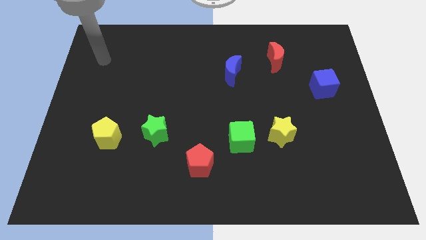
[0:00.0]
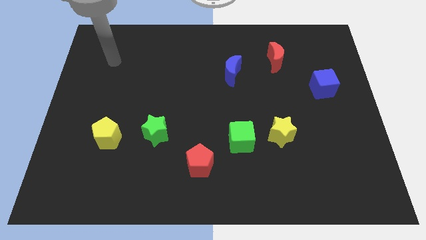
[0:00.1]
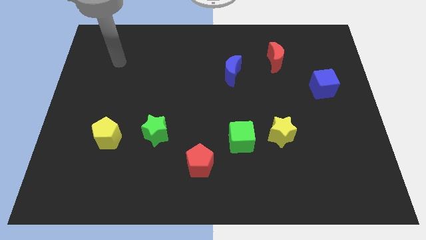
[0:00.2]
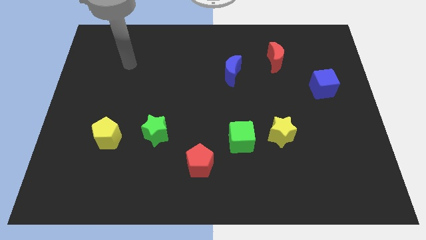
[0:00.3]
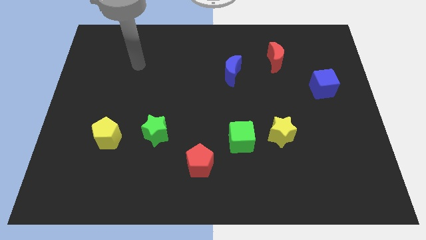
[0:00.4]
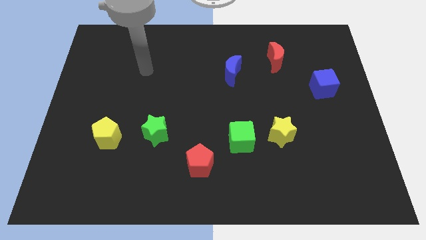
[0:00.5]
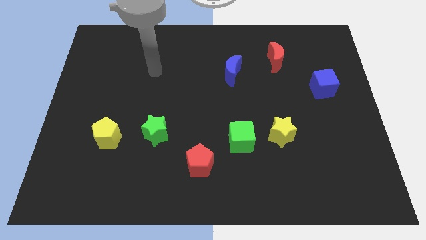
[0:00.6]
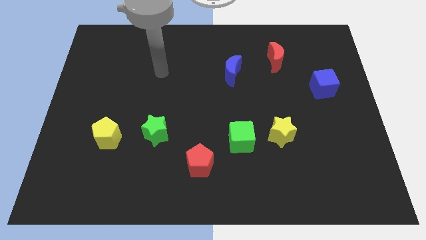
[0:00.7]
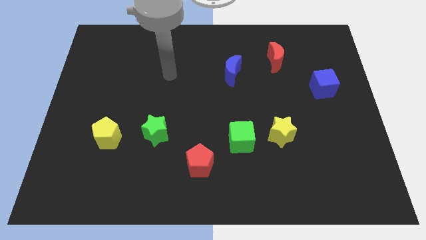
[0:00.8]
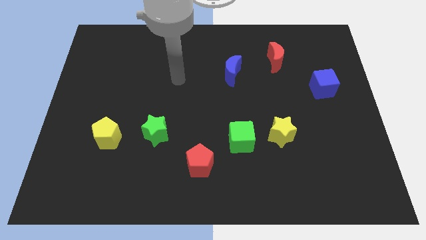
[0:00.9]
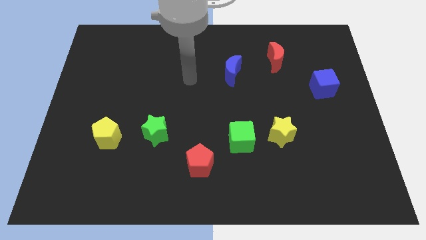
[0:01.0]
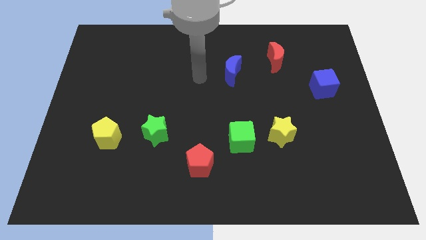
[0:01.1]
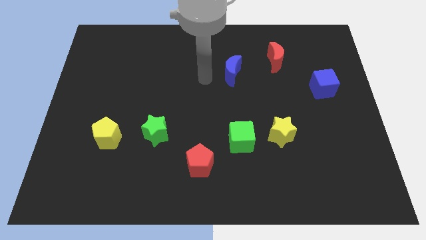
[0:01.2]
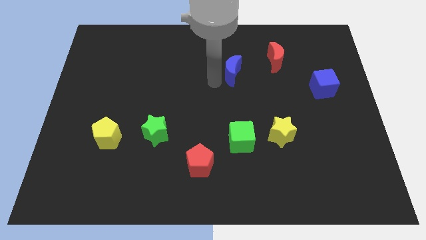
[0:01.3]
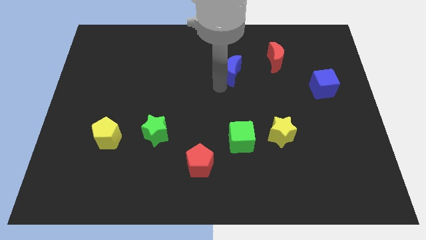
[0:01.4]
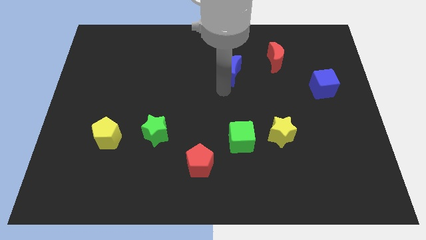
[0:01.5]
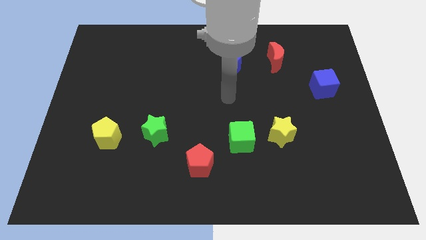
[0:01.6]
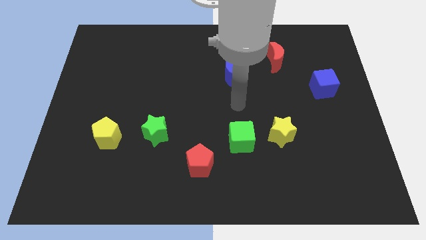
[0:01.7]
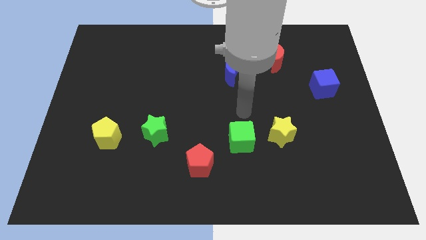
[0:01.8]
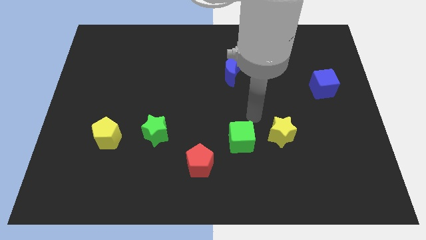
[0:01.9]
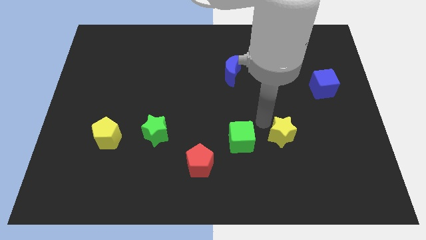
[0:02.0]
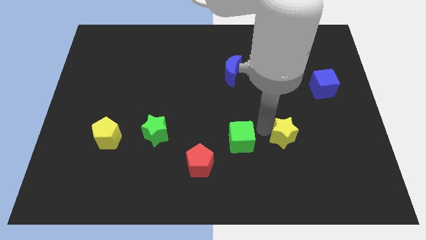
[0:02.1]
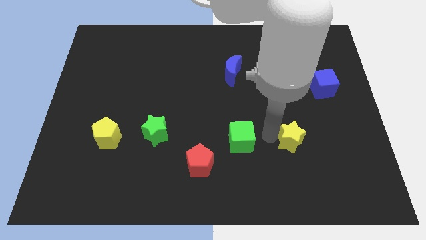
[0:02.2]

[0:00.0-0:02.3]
pull the green cube apart from the yellow star

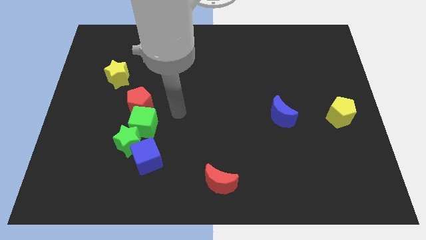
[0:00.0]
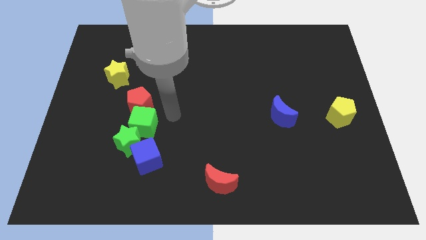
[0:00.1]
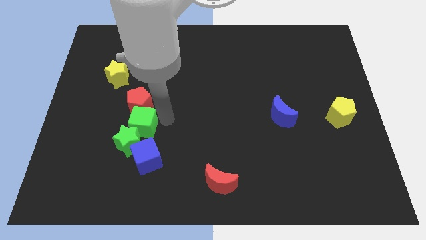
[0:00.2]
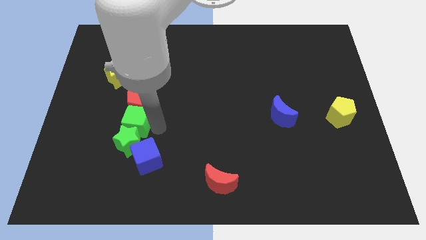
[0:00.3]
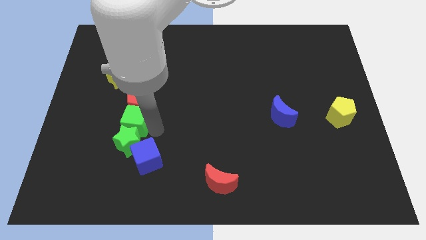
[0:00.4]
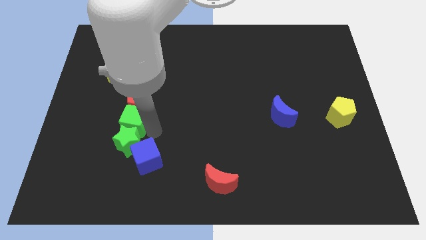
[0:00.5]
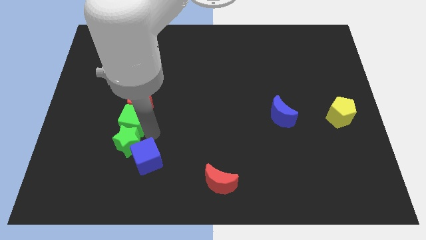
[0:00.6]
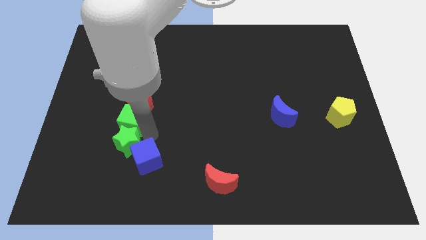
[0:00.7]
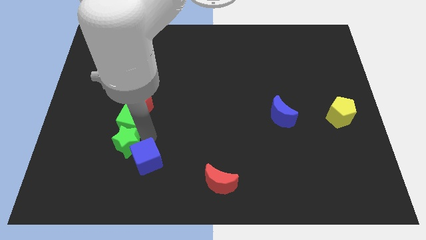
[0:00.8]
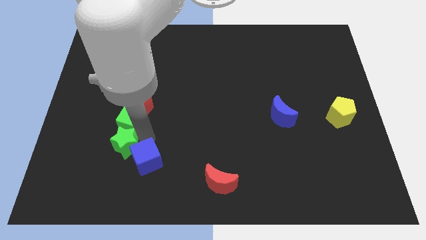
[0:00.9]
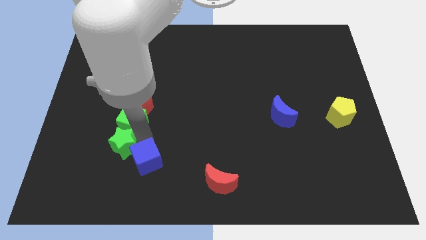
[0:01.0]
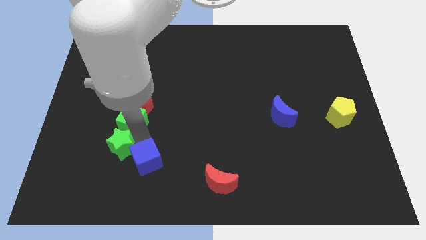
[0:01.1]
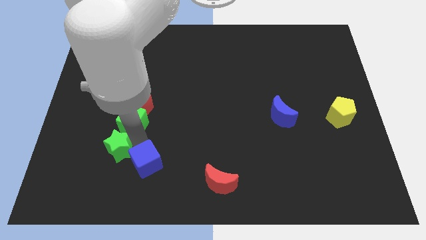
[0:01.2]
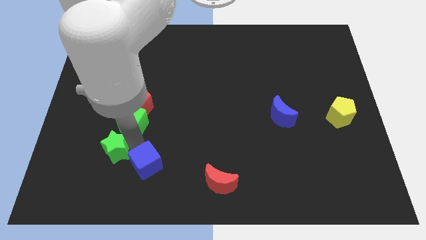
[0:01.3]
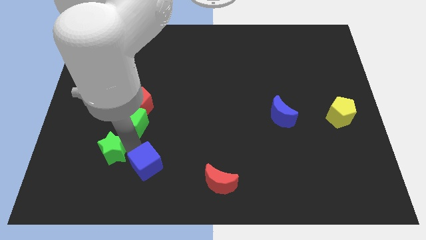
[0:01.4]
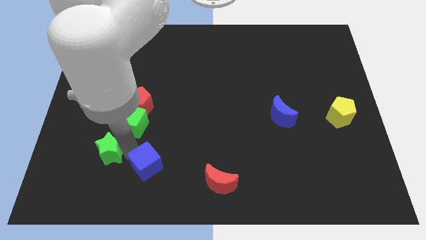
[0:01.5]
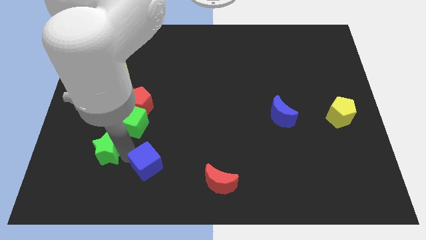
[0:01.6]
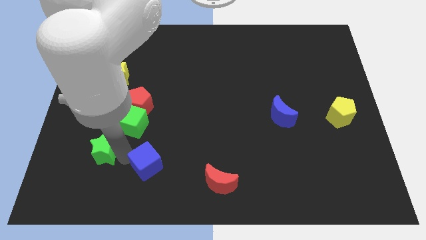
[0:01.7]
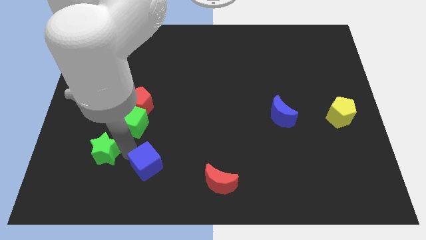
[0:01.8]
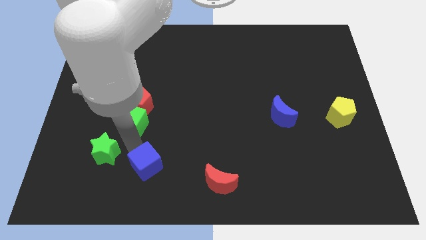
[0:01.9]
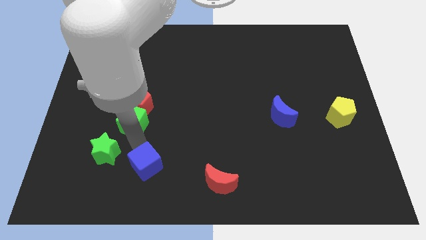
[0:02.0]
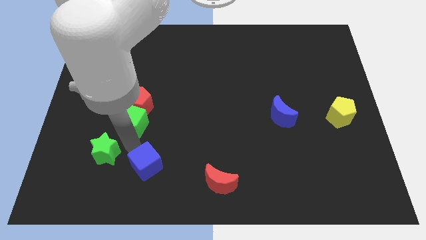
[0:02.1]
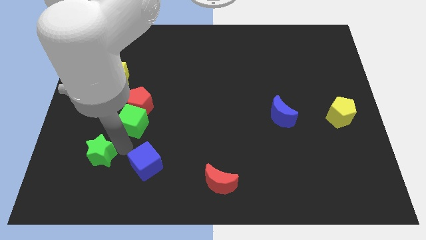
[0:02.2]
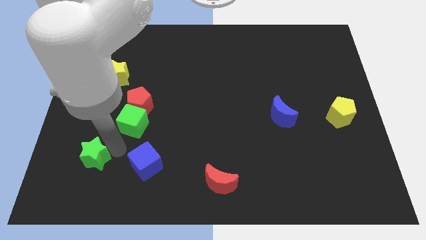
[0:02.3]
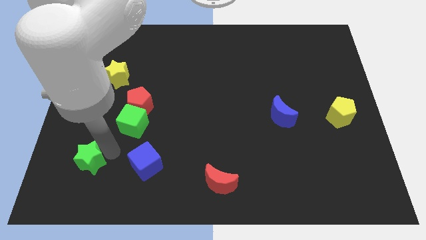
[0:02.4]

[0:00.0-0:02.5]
separate the green star from the green cube and blue cube

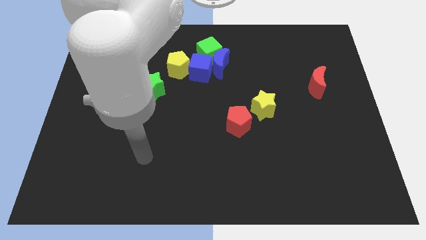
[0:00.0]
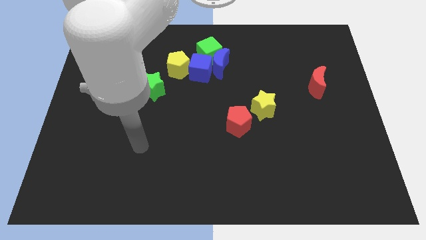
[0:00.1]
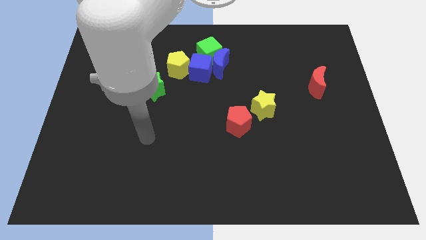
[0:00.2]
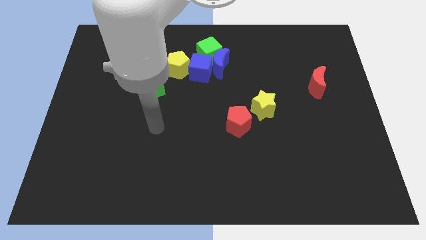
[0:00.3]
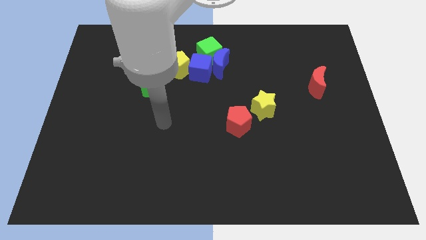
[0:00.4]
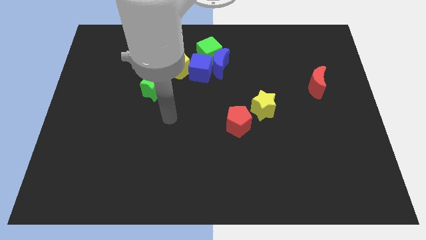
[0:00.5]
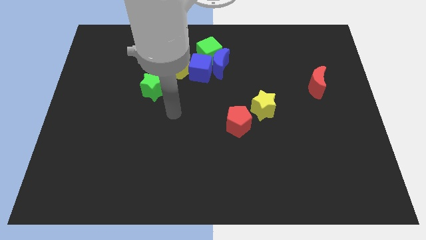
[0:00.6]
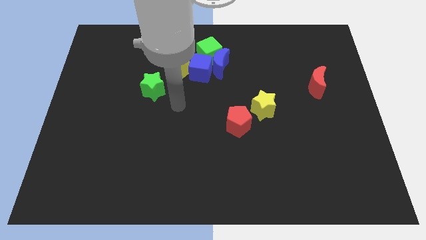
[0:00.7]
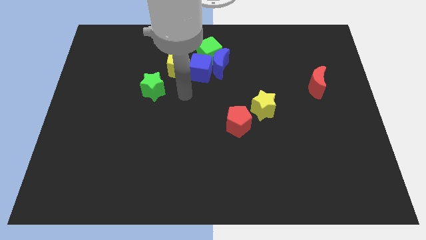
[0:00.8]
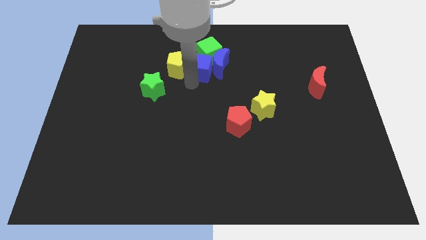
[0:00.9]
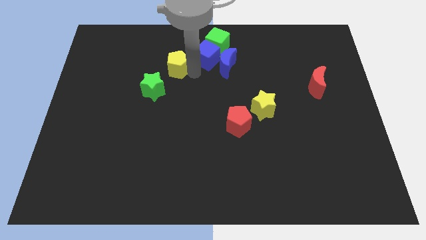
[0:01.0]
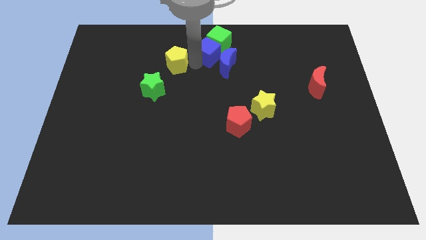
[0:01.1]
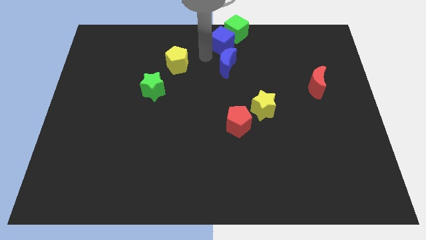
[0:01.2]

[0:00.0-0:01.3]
move the blue moon away from the green cube and blue cube

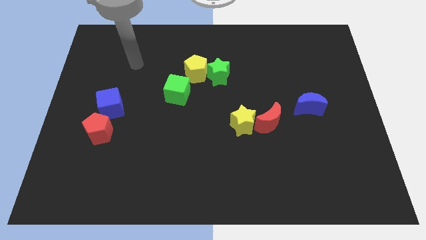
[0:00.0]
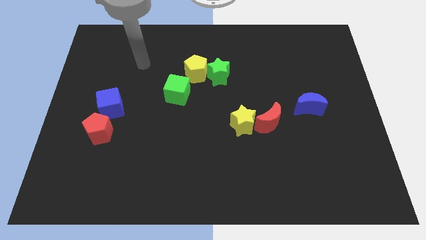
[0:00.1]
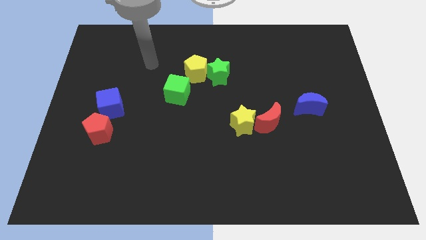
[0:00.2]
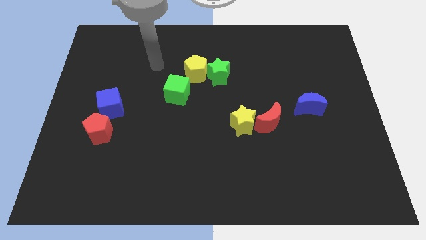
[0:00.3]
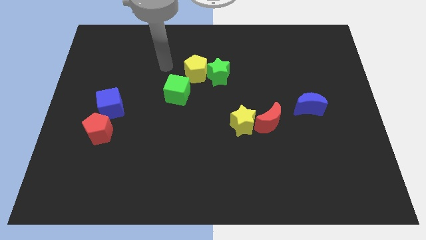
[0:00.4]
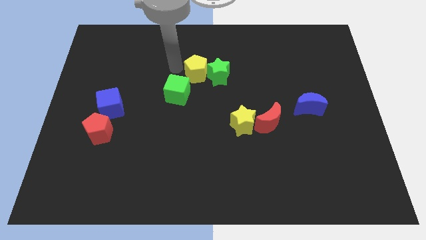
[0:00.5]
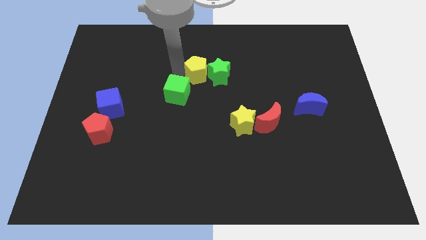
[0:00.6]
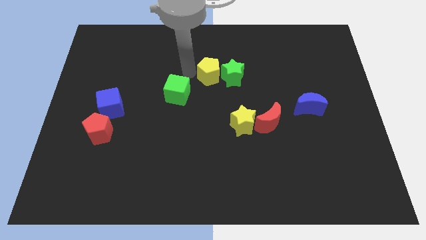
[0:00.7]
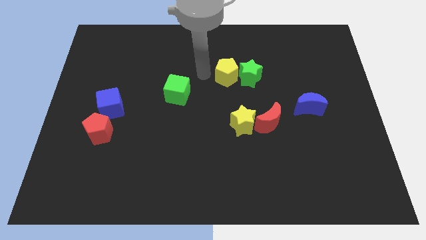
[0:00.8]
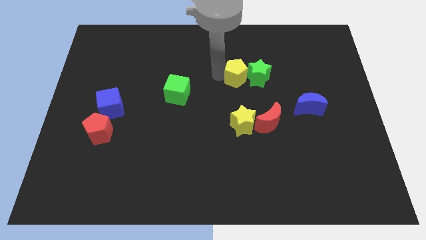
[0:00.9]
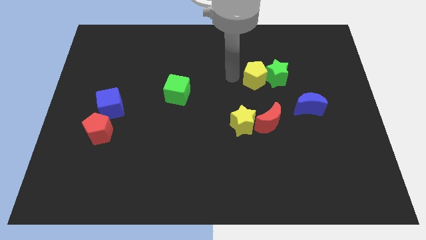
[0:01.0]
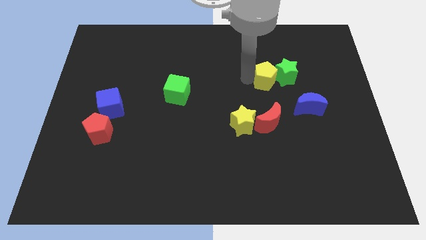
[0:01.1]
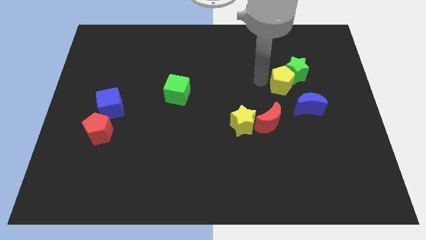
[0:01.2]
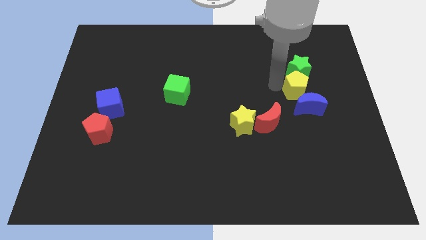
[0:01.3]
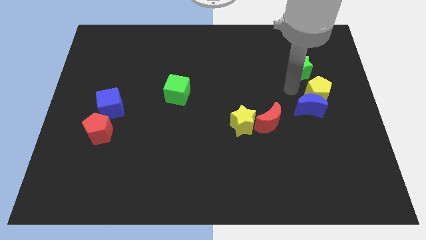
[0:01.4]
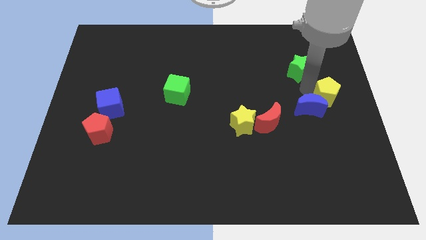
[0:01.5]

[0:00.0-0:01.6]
pull the green star apart from the yellow pentagon

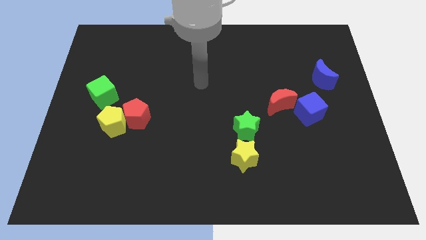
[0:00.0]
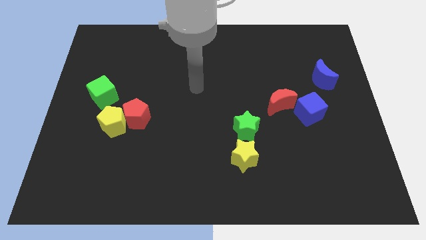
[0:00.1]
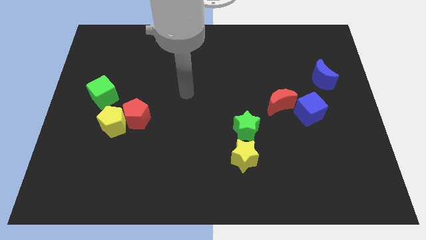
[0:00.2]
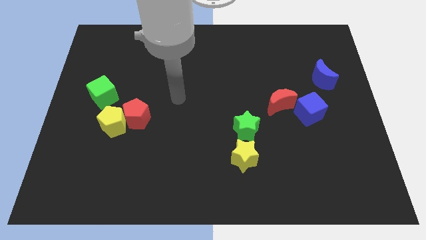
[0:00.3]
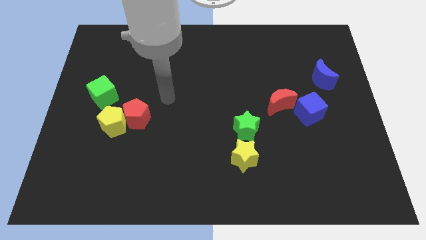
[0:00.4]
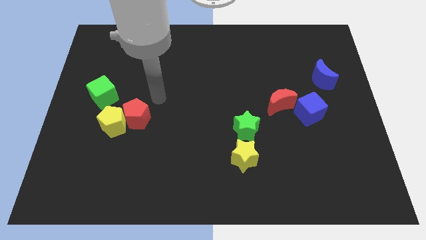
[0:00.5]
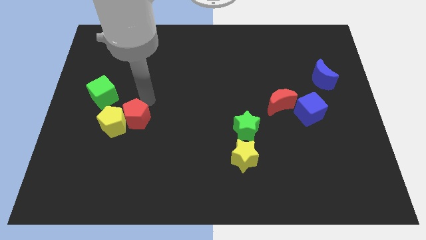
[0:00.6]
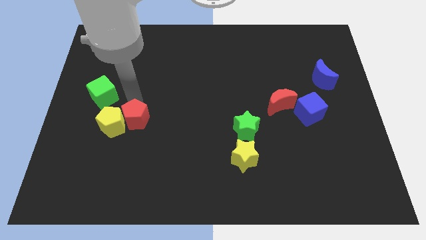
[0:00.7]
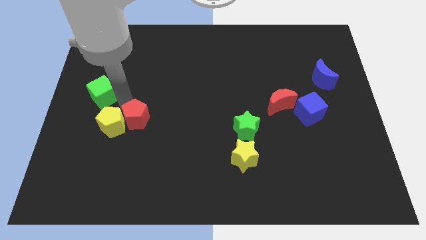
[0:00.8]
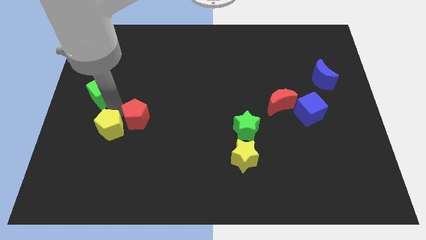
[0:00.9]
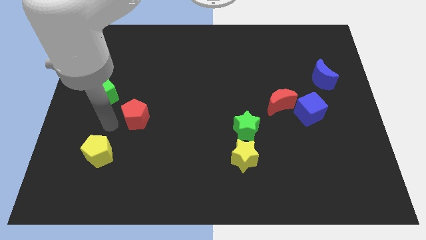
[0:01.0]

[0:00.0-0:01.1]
separate the red pentagon from the yellow pentagon

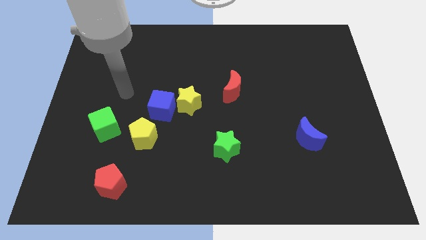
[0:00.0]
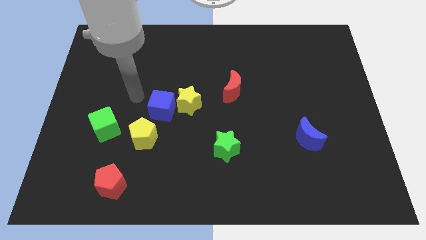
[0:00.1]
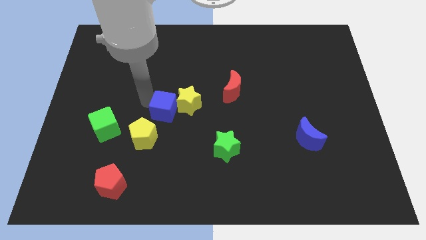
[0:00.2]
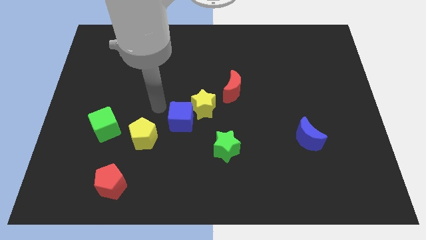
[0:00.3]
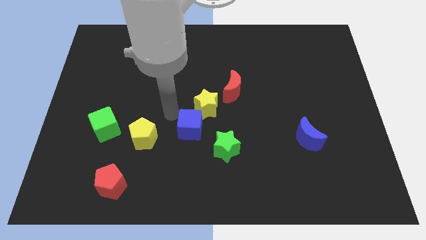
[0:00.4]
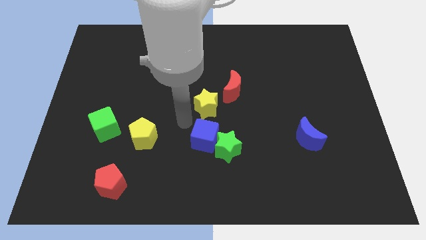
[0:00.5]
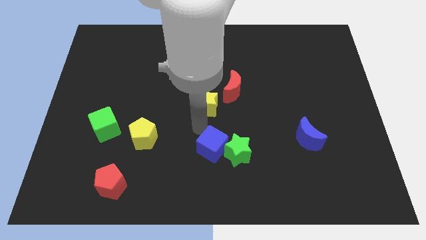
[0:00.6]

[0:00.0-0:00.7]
pull the yellow star apart from the blue cube
